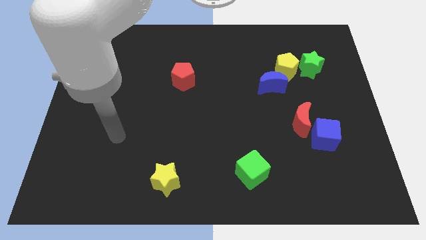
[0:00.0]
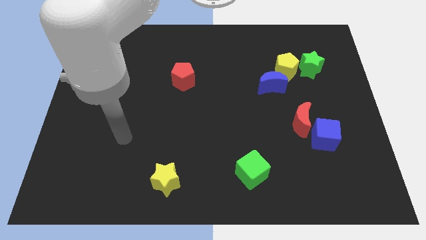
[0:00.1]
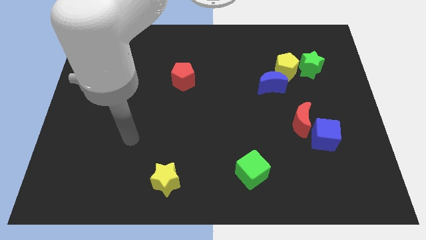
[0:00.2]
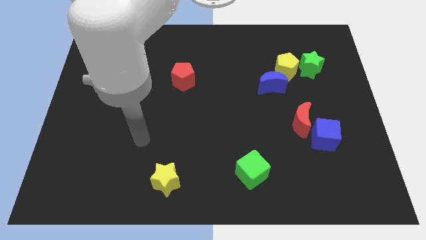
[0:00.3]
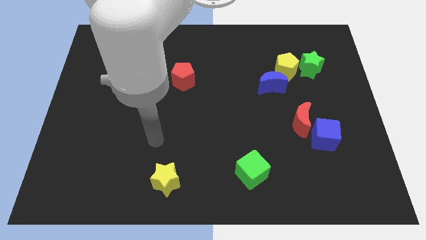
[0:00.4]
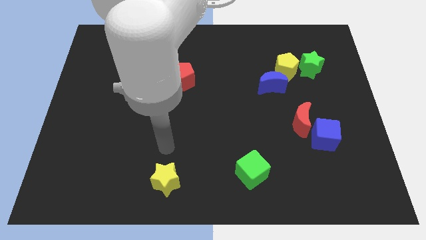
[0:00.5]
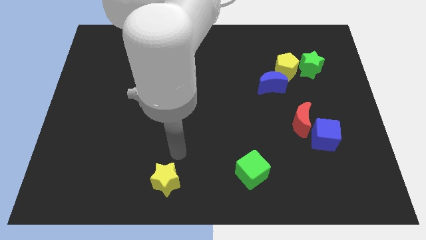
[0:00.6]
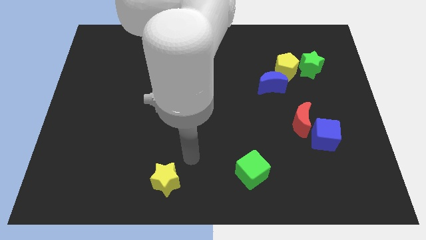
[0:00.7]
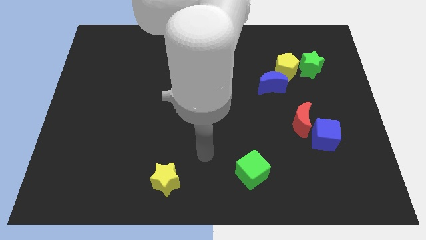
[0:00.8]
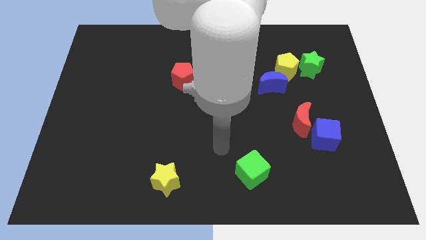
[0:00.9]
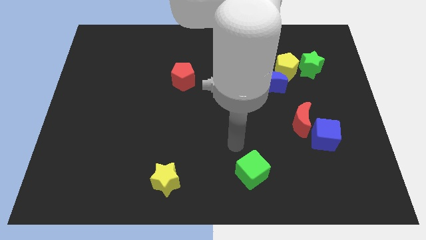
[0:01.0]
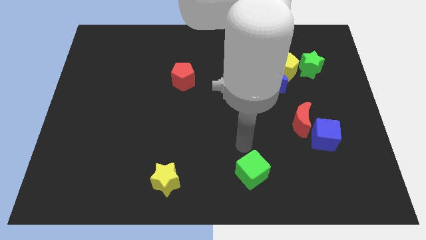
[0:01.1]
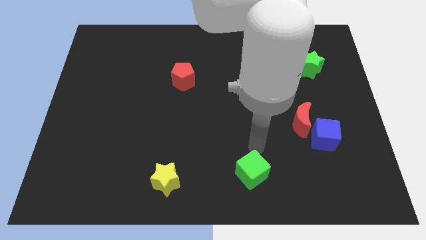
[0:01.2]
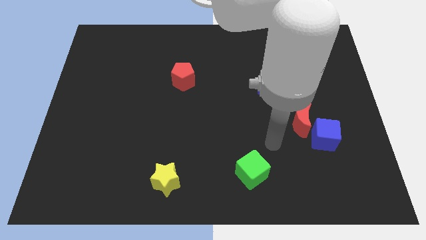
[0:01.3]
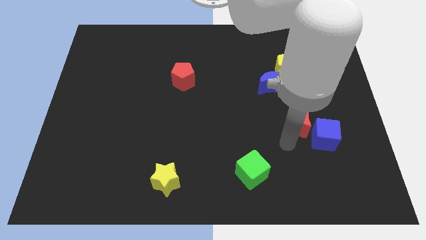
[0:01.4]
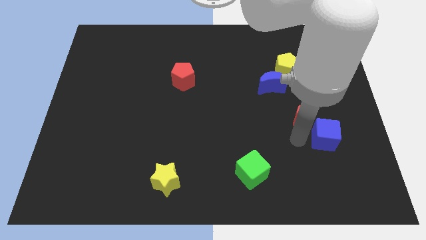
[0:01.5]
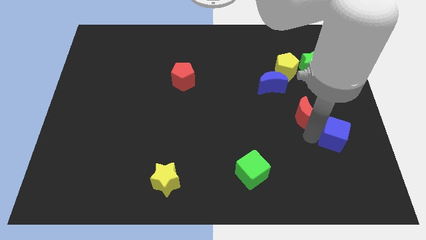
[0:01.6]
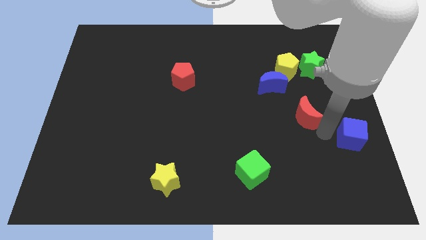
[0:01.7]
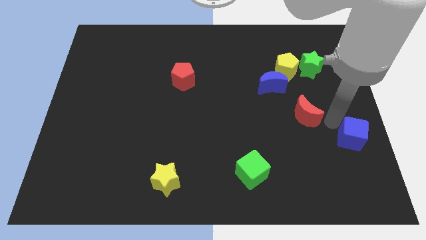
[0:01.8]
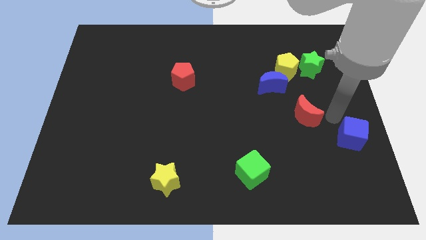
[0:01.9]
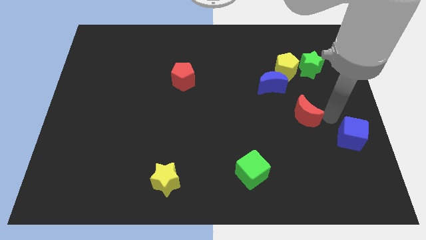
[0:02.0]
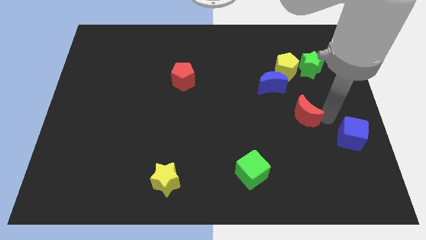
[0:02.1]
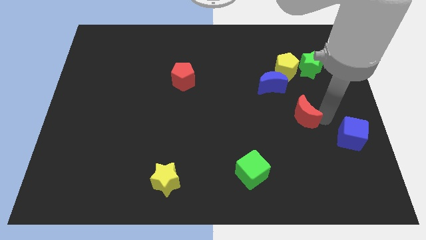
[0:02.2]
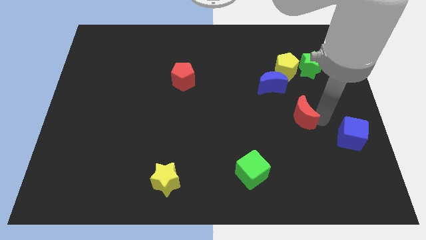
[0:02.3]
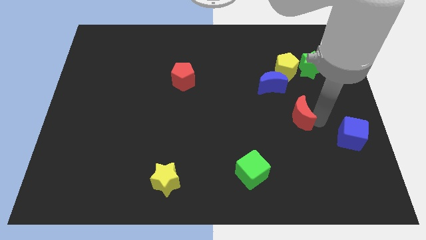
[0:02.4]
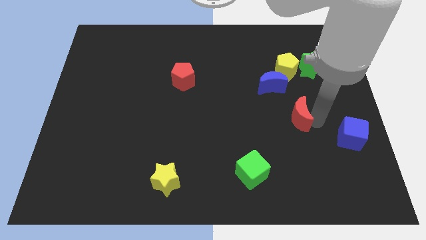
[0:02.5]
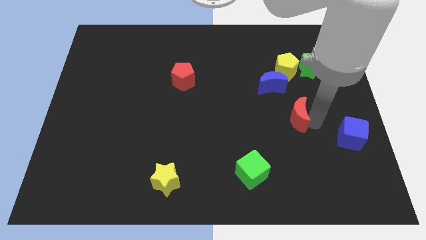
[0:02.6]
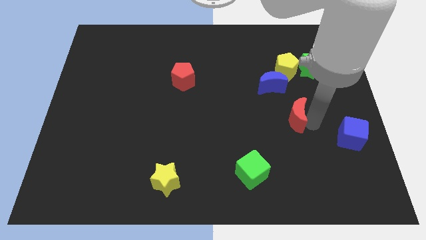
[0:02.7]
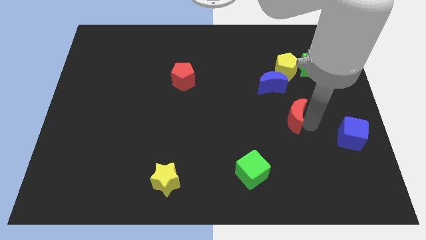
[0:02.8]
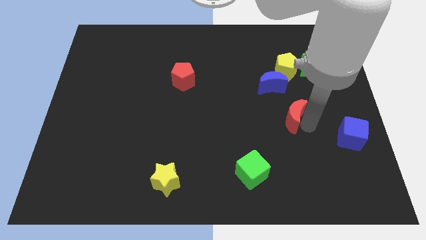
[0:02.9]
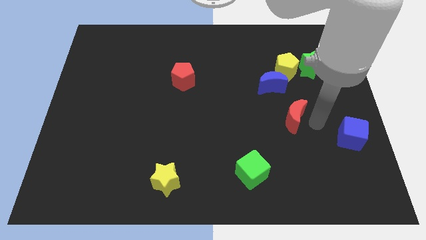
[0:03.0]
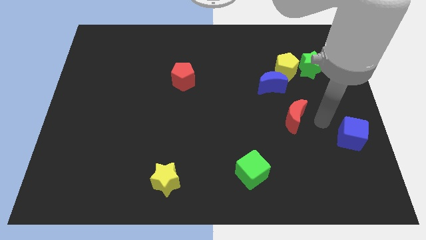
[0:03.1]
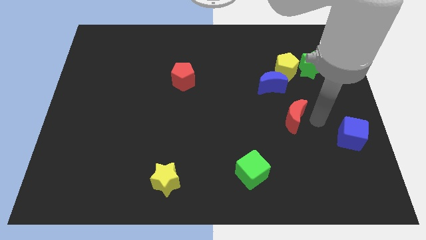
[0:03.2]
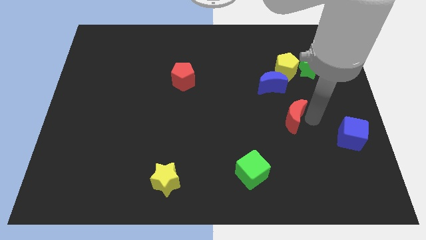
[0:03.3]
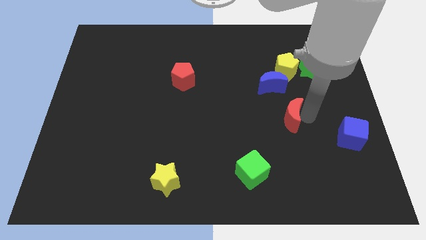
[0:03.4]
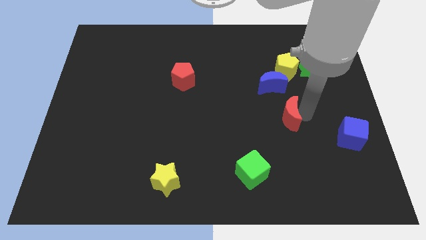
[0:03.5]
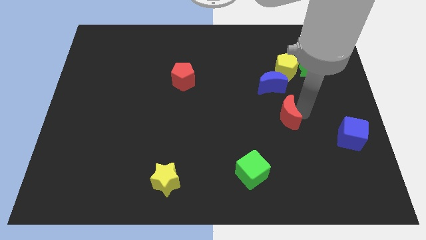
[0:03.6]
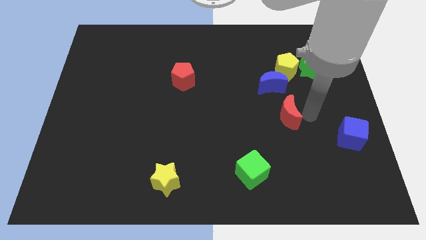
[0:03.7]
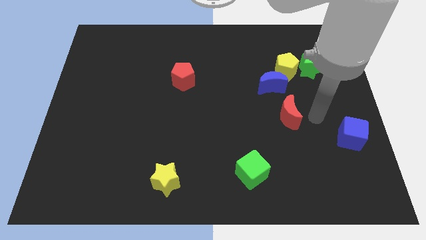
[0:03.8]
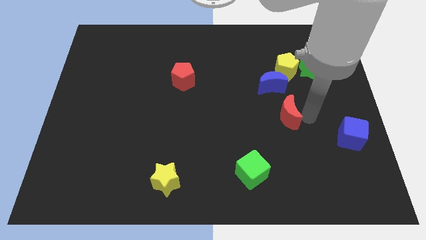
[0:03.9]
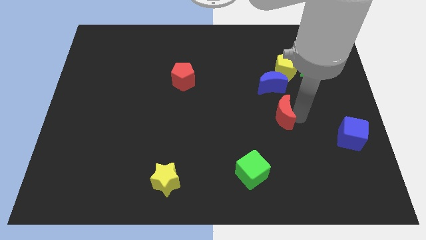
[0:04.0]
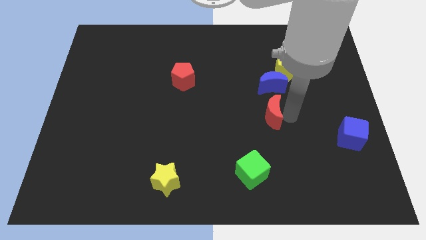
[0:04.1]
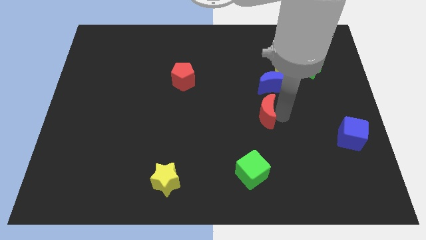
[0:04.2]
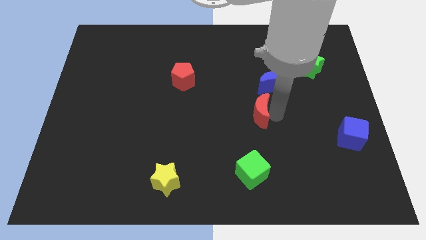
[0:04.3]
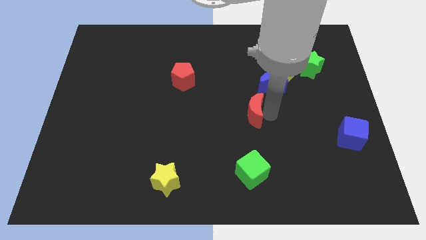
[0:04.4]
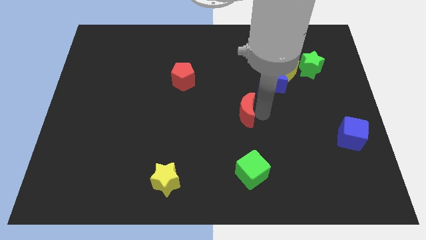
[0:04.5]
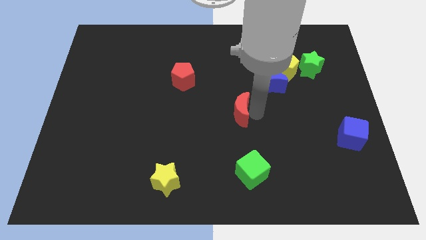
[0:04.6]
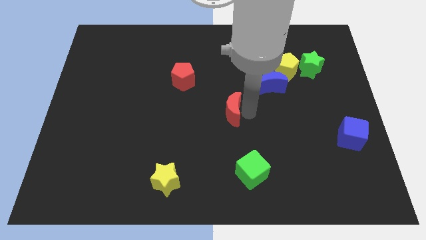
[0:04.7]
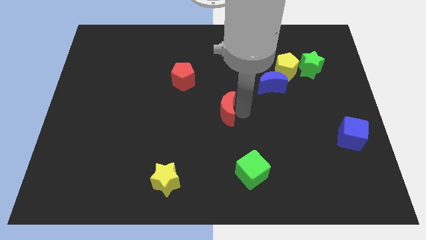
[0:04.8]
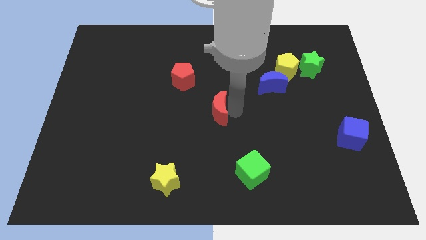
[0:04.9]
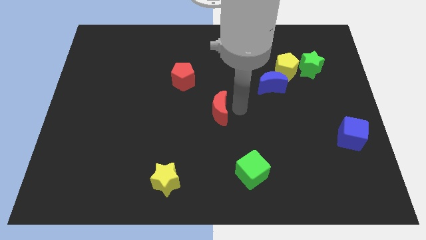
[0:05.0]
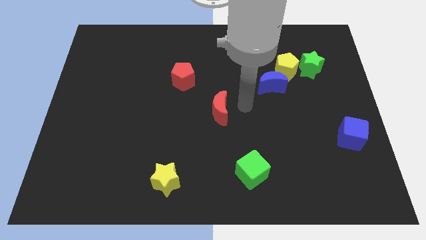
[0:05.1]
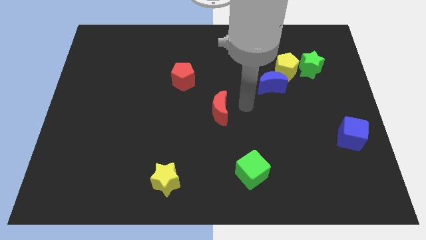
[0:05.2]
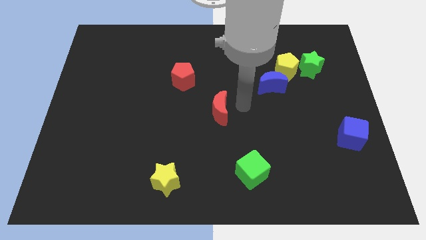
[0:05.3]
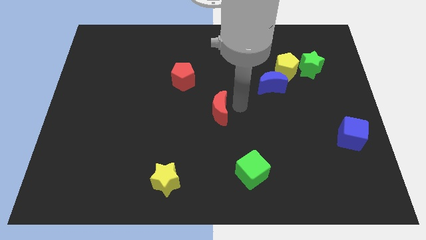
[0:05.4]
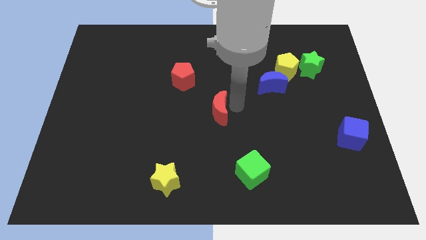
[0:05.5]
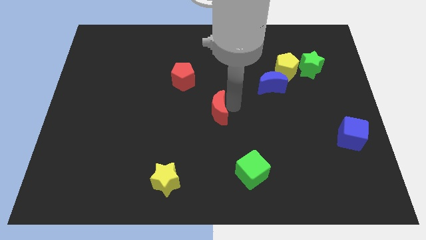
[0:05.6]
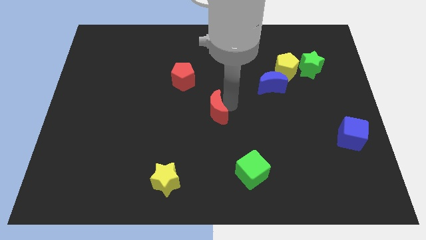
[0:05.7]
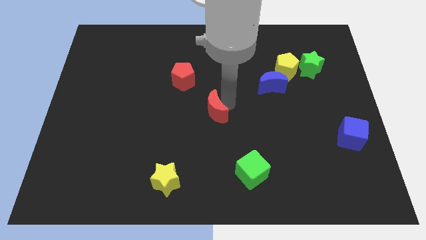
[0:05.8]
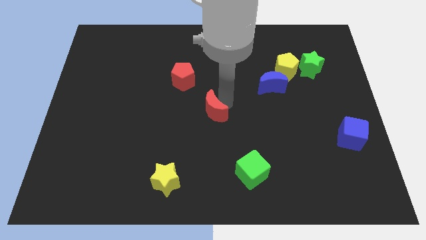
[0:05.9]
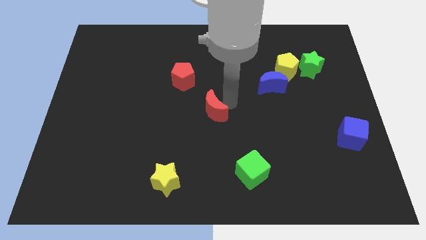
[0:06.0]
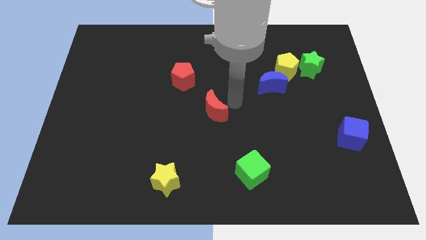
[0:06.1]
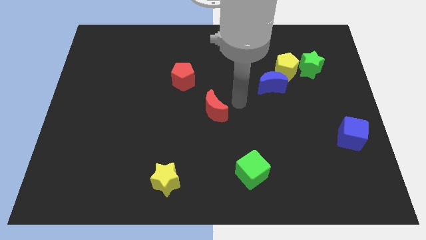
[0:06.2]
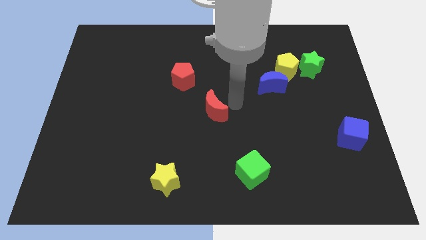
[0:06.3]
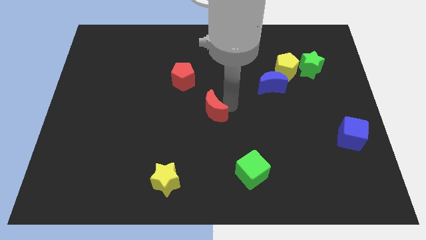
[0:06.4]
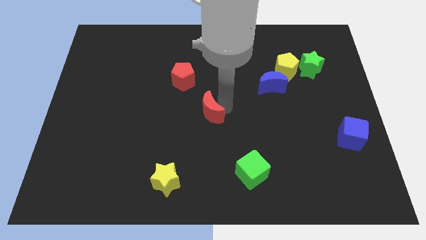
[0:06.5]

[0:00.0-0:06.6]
move the red moon to the left

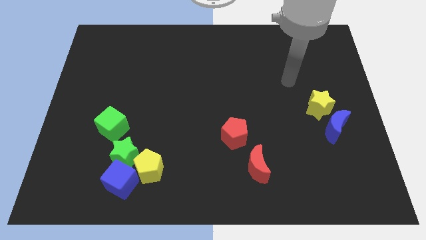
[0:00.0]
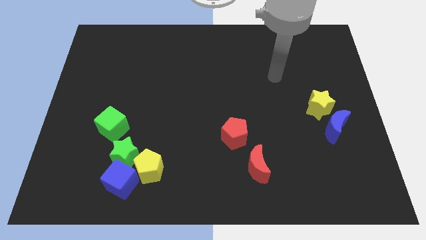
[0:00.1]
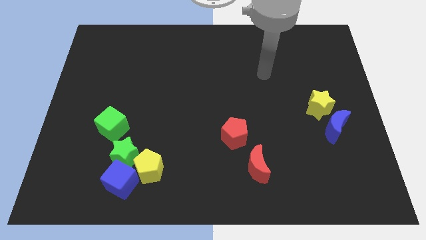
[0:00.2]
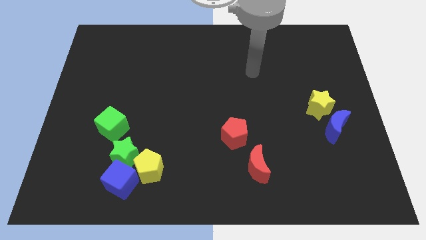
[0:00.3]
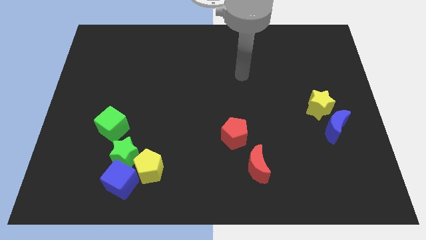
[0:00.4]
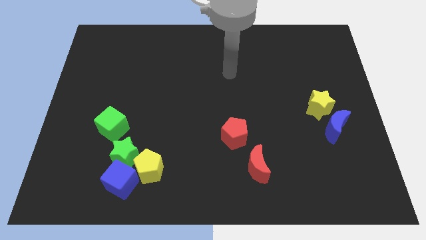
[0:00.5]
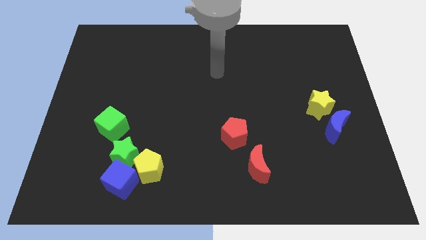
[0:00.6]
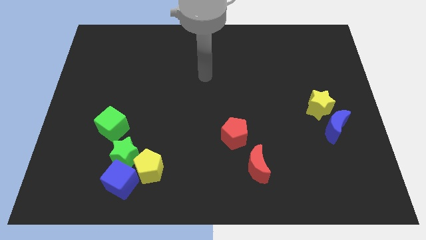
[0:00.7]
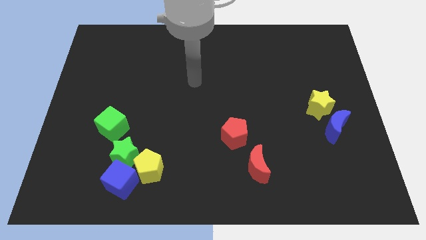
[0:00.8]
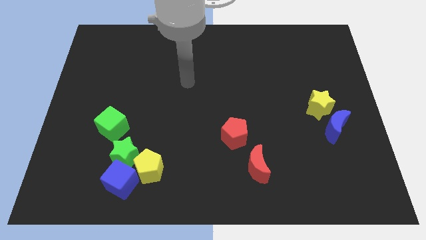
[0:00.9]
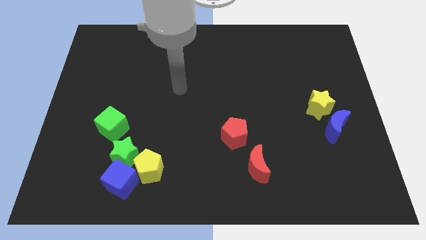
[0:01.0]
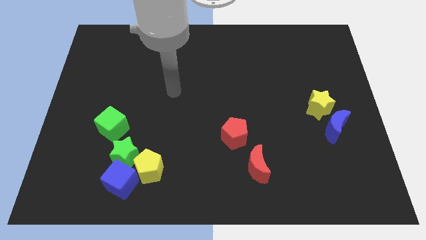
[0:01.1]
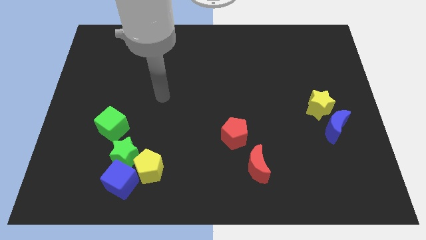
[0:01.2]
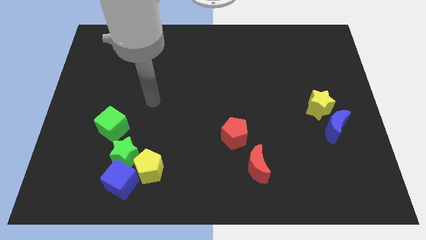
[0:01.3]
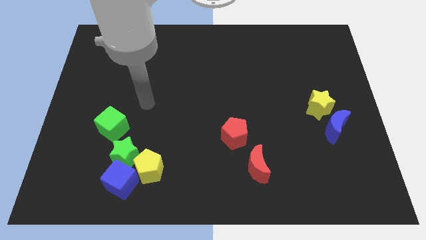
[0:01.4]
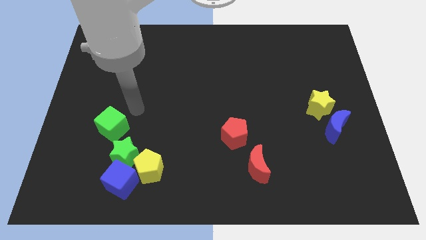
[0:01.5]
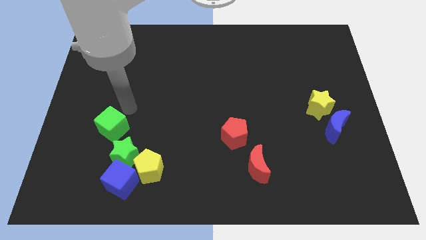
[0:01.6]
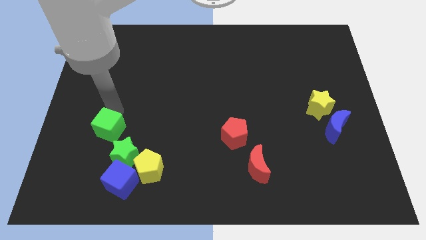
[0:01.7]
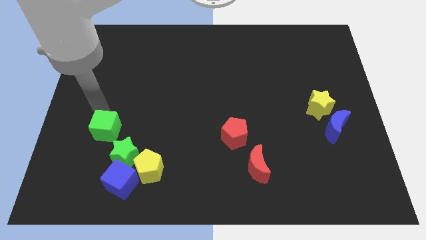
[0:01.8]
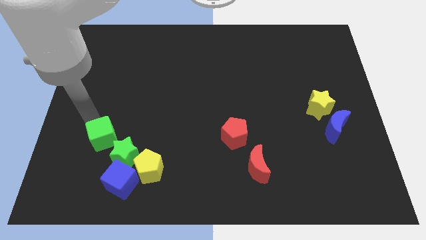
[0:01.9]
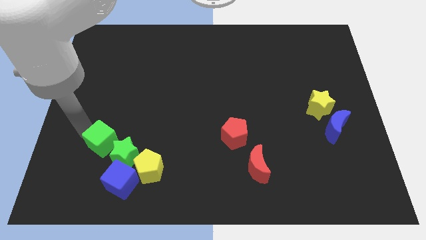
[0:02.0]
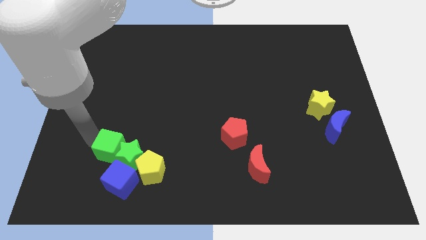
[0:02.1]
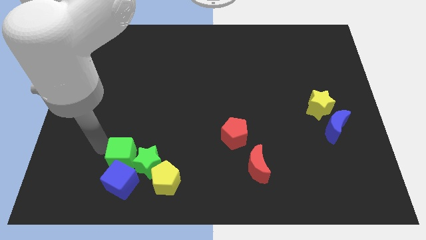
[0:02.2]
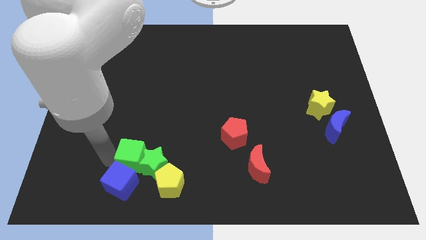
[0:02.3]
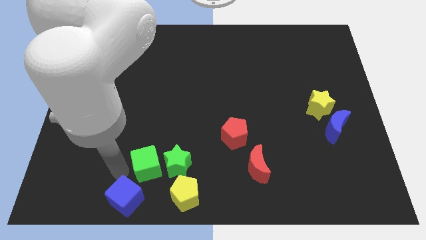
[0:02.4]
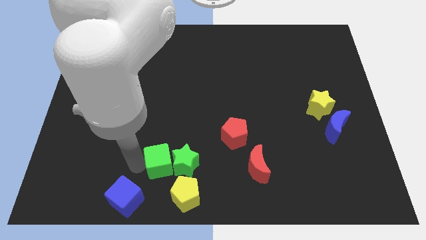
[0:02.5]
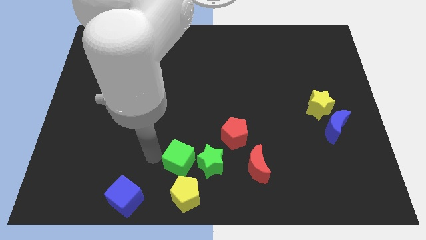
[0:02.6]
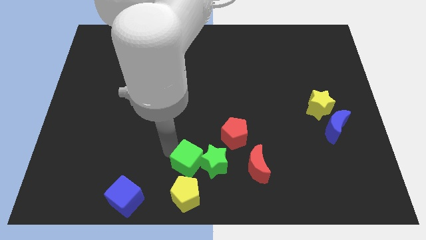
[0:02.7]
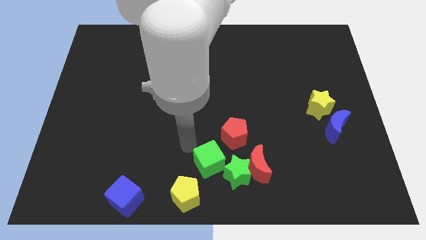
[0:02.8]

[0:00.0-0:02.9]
slide the green star right
